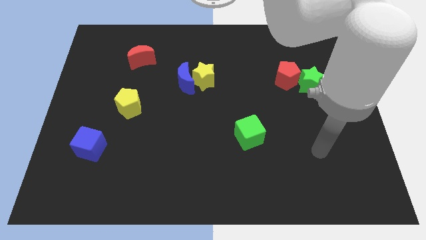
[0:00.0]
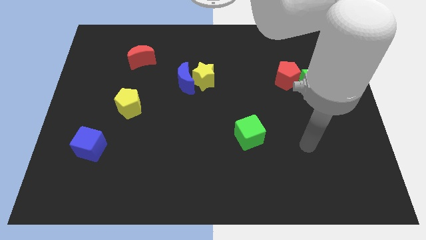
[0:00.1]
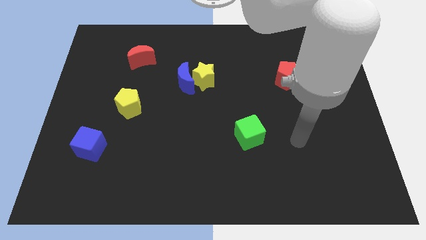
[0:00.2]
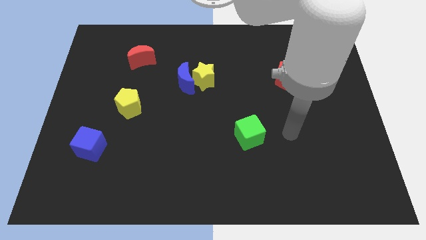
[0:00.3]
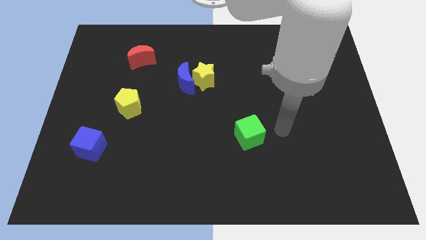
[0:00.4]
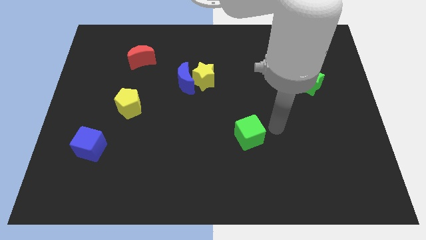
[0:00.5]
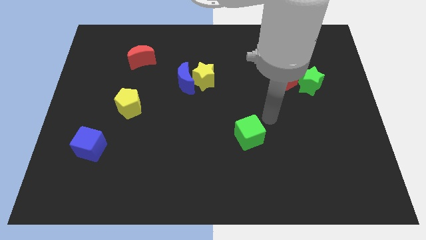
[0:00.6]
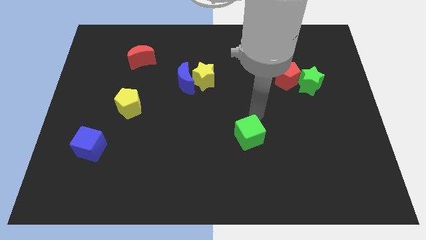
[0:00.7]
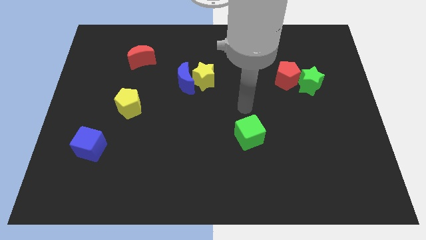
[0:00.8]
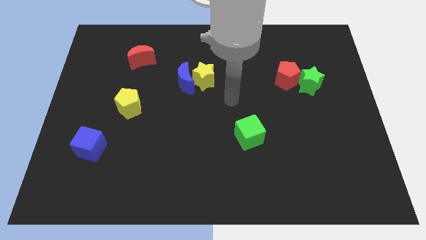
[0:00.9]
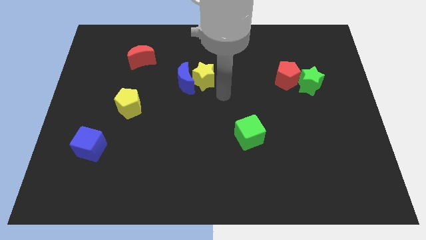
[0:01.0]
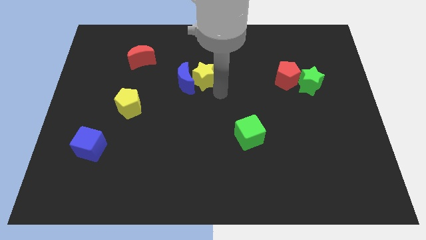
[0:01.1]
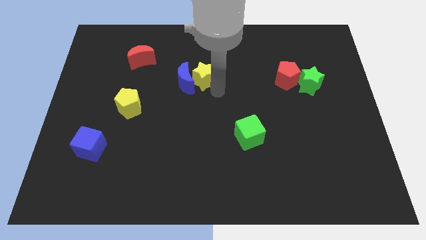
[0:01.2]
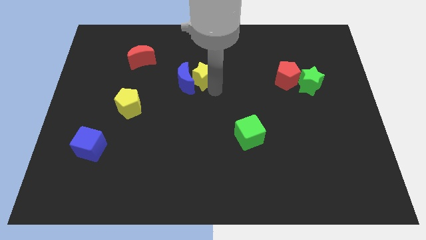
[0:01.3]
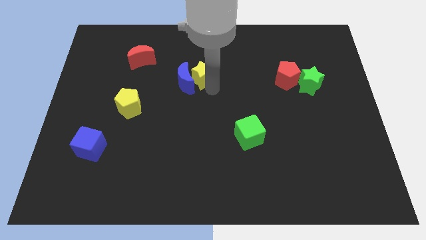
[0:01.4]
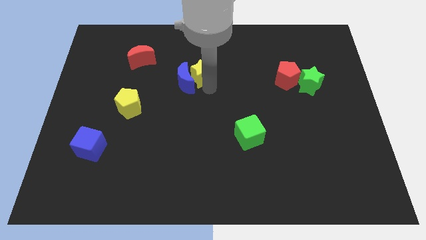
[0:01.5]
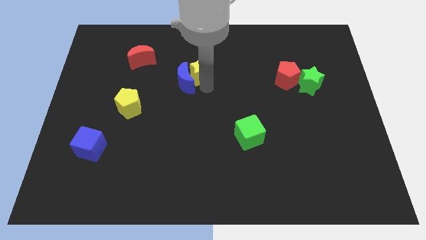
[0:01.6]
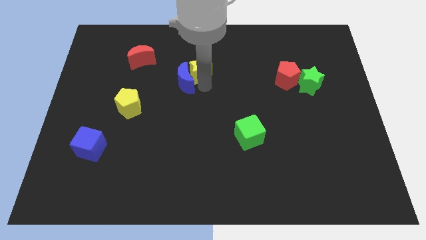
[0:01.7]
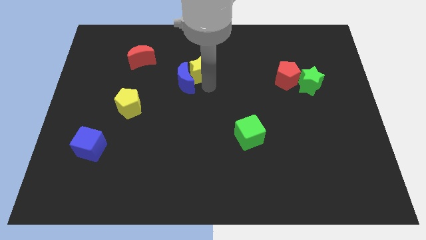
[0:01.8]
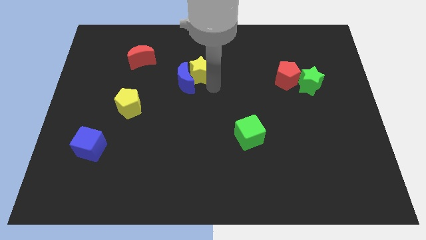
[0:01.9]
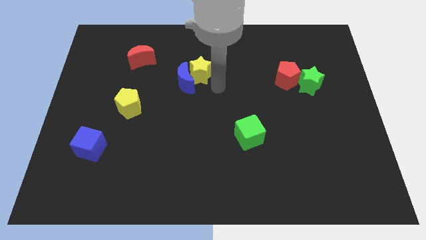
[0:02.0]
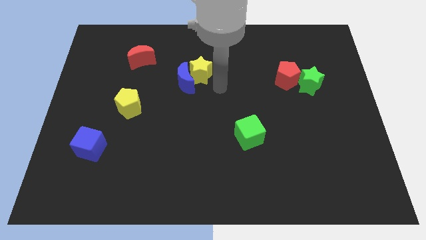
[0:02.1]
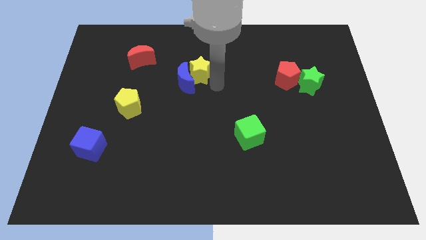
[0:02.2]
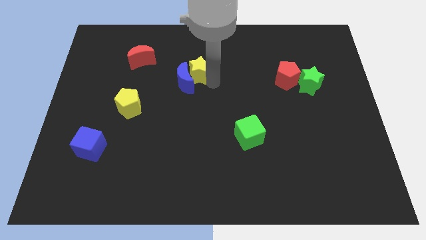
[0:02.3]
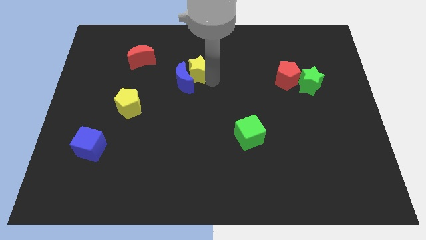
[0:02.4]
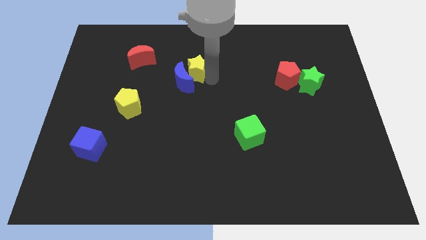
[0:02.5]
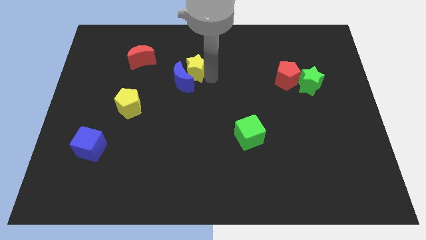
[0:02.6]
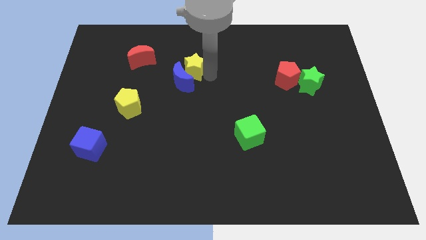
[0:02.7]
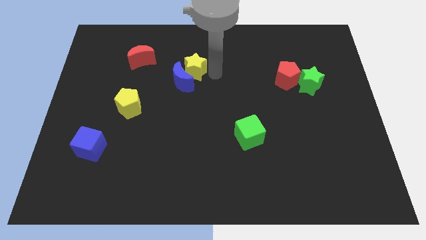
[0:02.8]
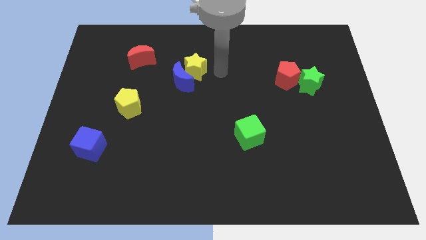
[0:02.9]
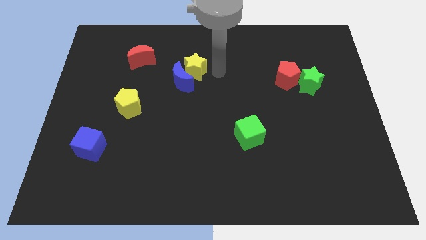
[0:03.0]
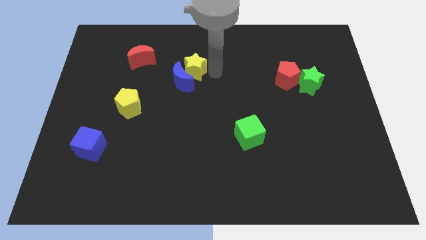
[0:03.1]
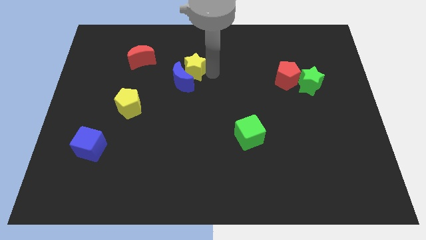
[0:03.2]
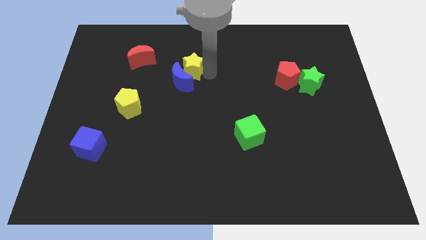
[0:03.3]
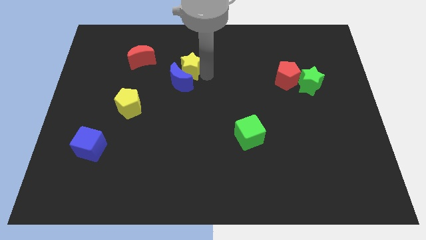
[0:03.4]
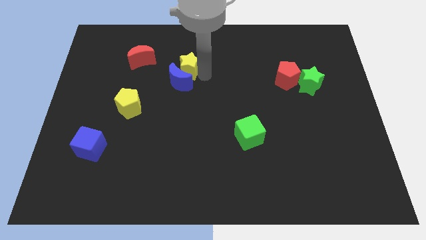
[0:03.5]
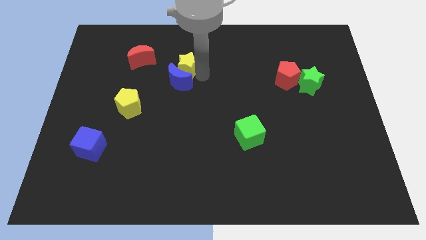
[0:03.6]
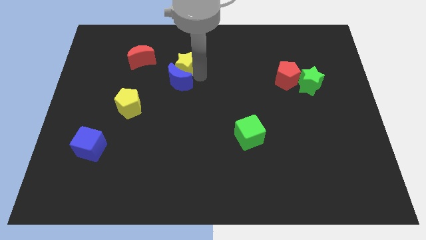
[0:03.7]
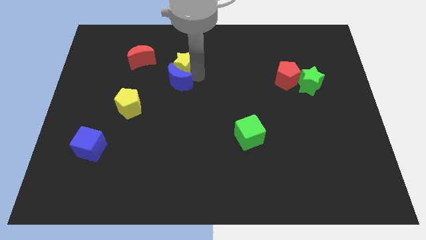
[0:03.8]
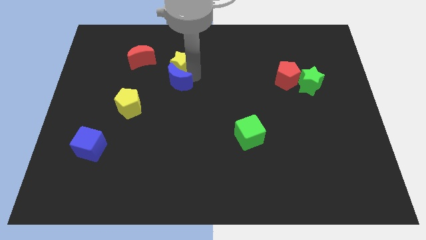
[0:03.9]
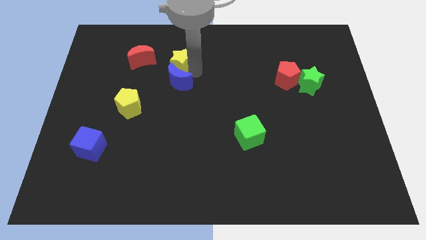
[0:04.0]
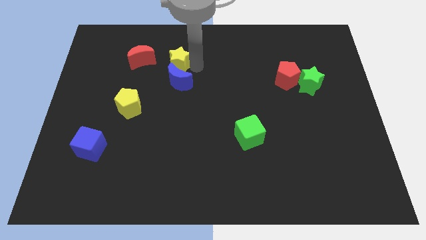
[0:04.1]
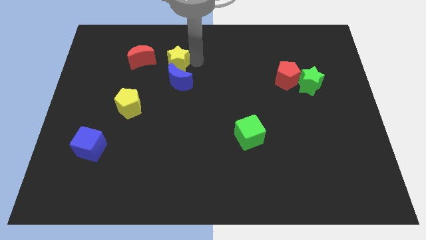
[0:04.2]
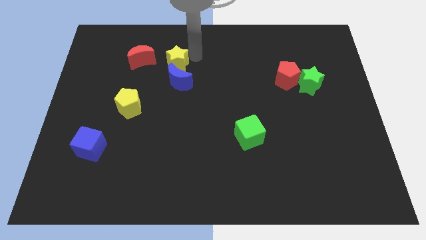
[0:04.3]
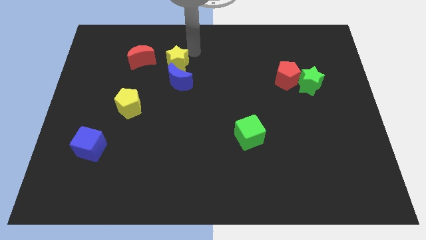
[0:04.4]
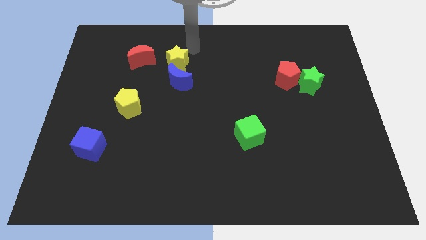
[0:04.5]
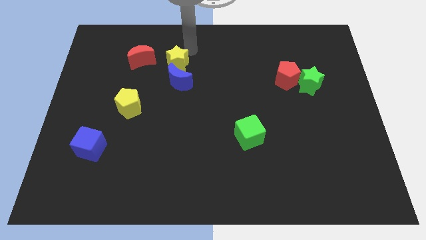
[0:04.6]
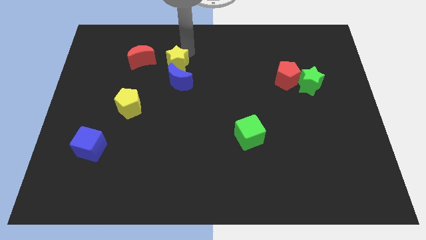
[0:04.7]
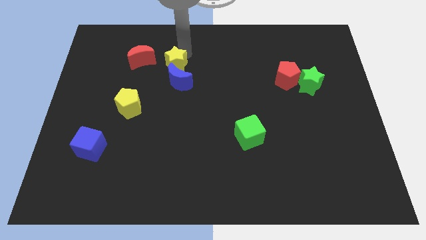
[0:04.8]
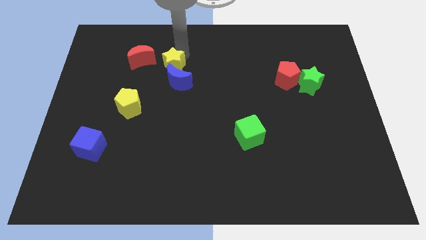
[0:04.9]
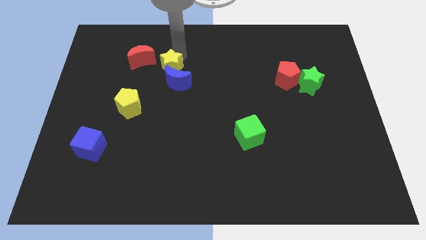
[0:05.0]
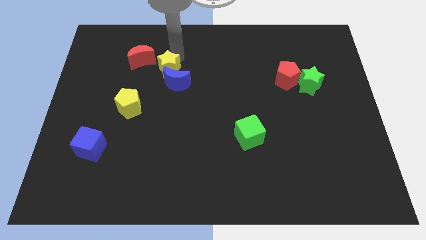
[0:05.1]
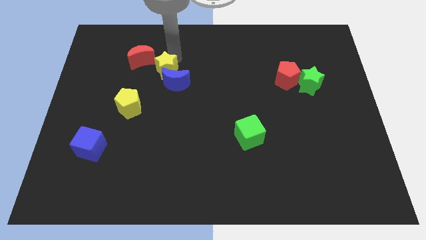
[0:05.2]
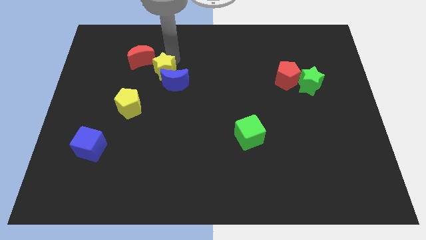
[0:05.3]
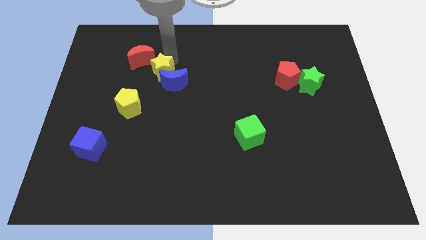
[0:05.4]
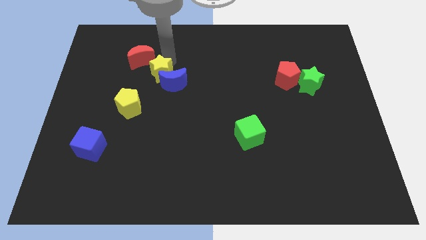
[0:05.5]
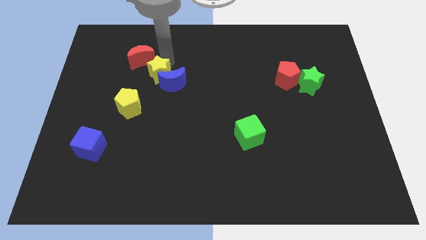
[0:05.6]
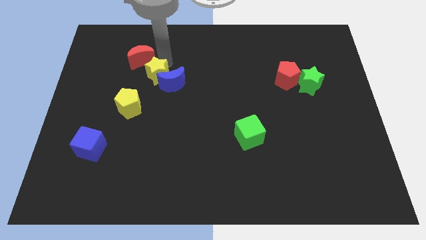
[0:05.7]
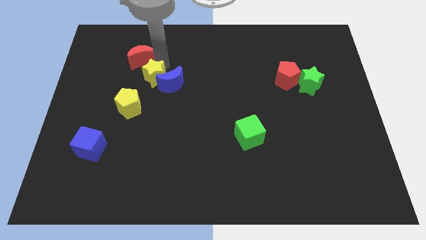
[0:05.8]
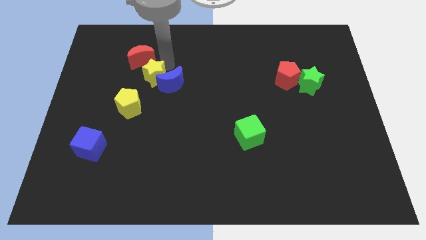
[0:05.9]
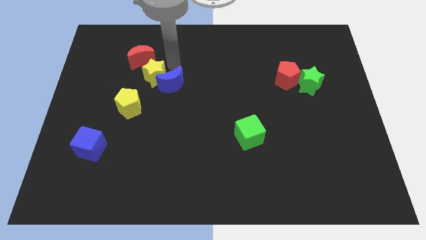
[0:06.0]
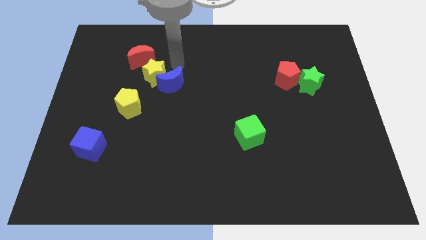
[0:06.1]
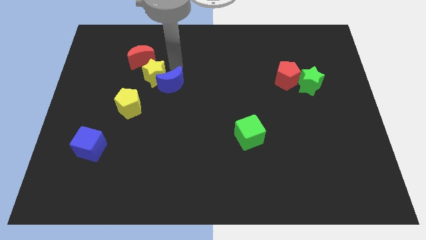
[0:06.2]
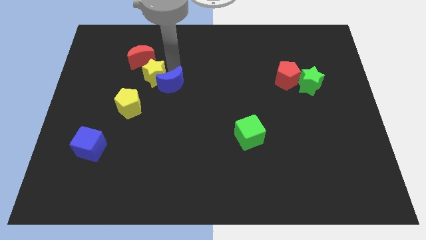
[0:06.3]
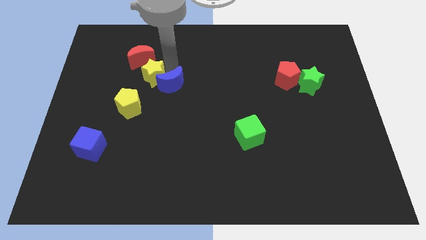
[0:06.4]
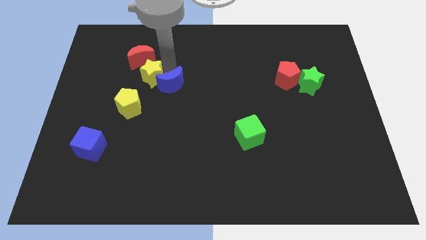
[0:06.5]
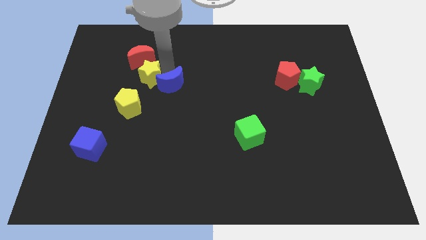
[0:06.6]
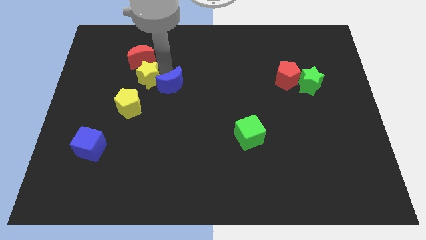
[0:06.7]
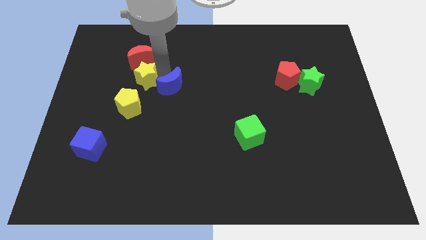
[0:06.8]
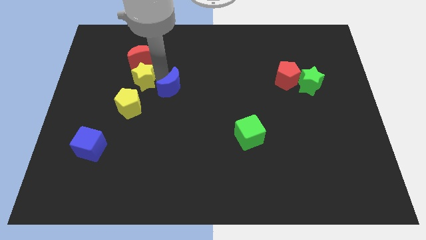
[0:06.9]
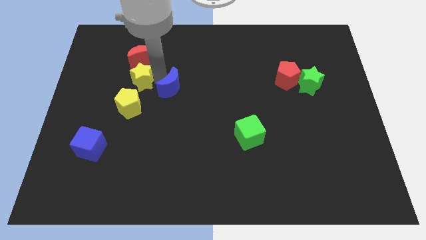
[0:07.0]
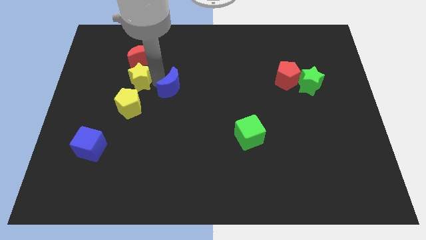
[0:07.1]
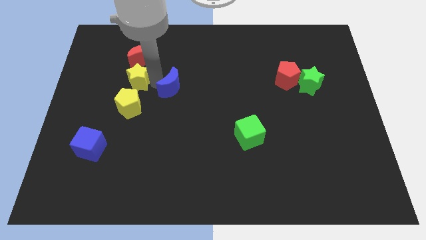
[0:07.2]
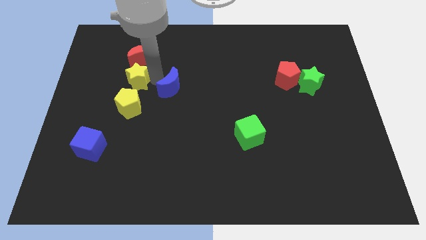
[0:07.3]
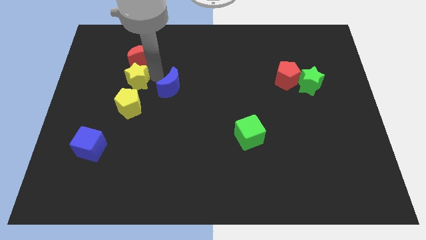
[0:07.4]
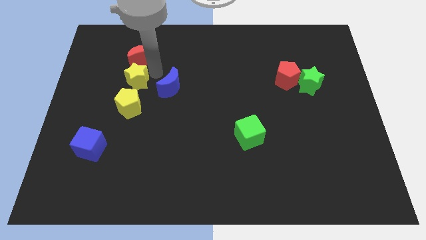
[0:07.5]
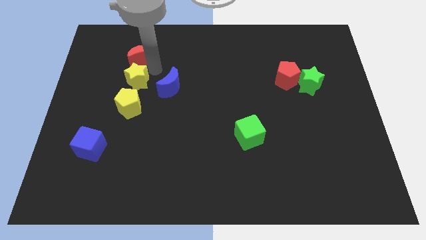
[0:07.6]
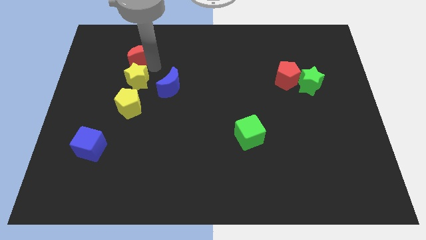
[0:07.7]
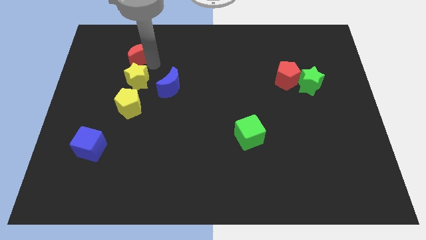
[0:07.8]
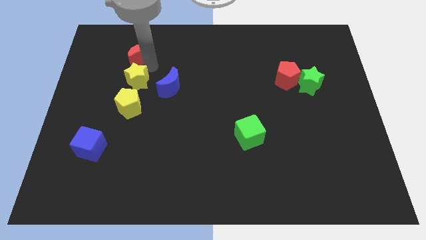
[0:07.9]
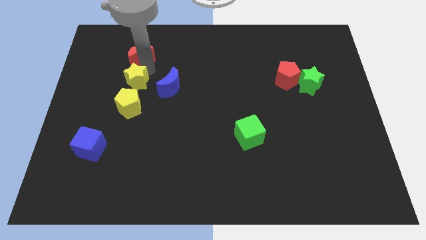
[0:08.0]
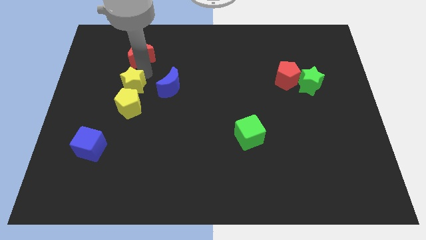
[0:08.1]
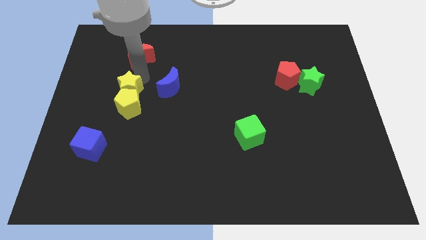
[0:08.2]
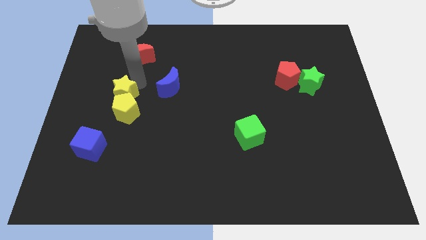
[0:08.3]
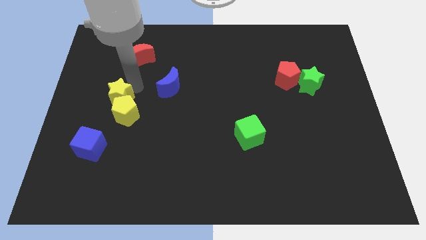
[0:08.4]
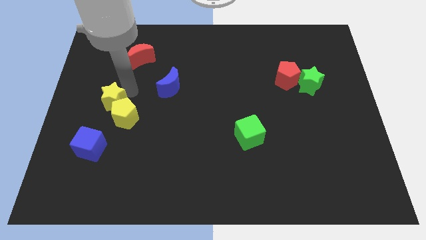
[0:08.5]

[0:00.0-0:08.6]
put the yellow star to the top of the blue cube
